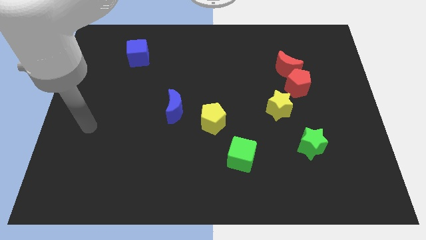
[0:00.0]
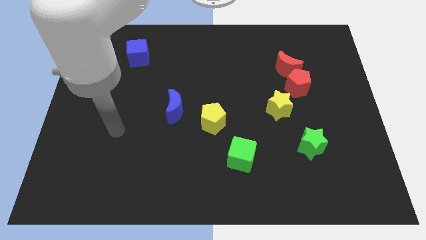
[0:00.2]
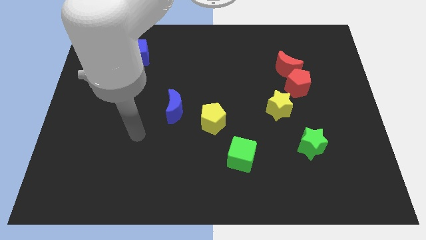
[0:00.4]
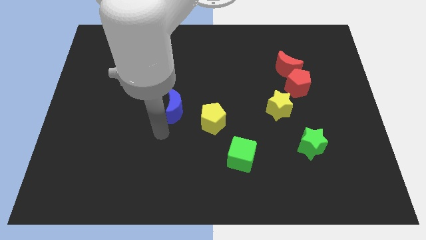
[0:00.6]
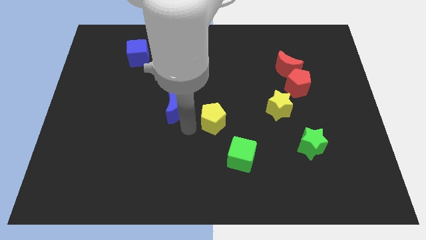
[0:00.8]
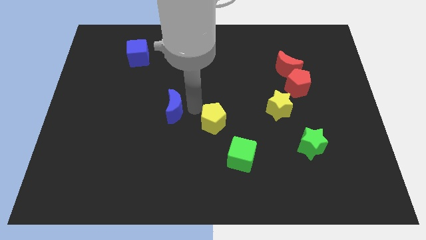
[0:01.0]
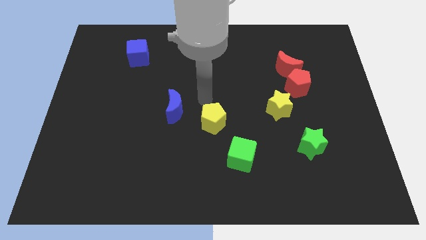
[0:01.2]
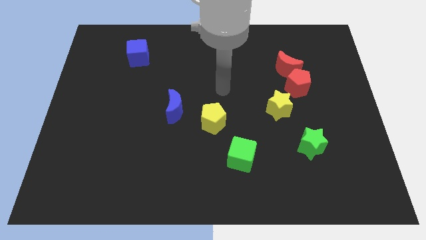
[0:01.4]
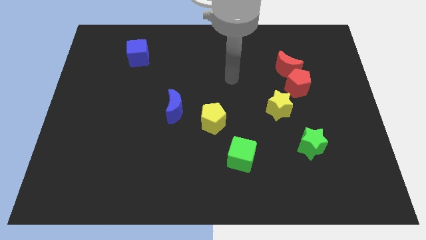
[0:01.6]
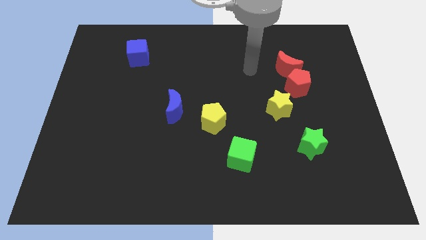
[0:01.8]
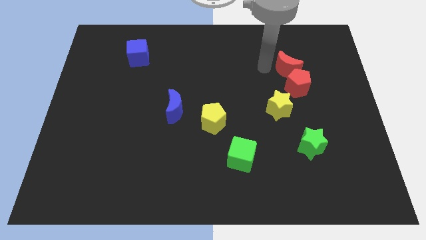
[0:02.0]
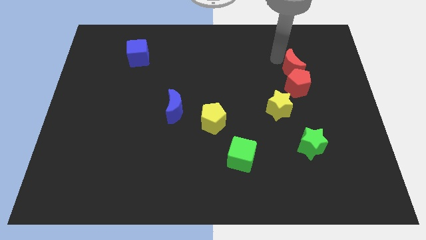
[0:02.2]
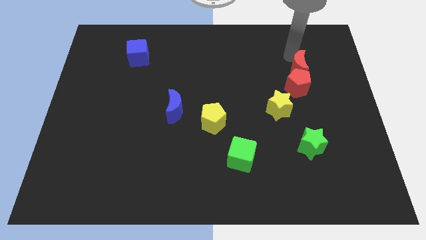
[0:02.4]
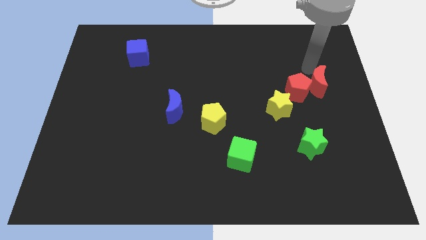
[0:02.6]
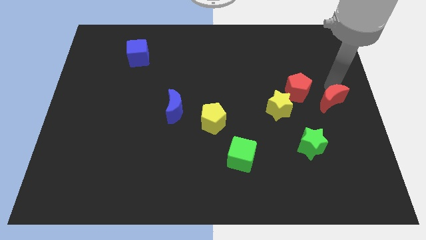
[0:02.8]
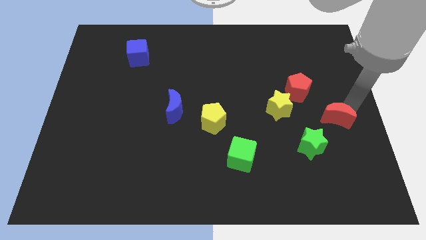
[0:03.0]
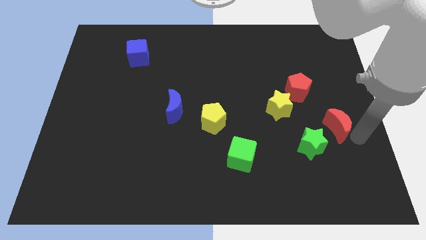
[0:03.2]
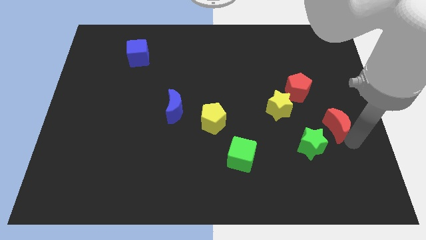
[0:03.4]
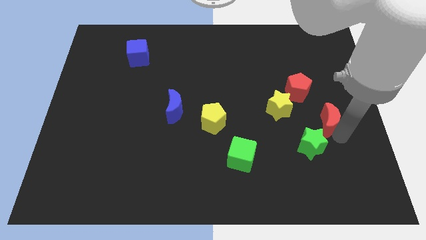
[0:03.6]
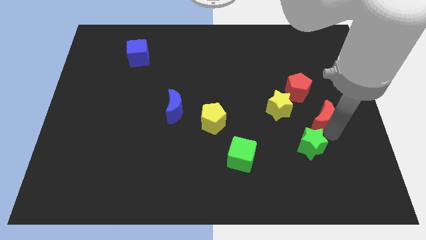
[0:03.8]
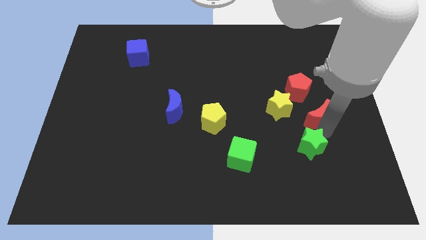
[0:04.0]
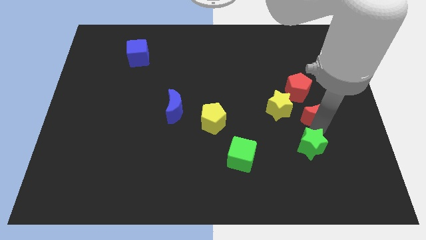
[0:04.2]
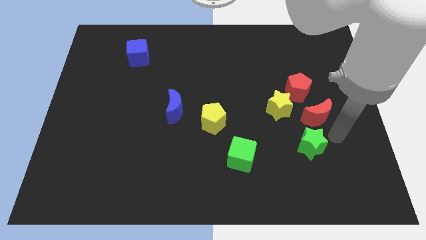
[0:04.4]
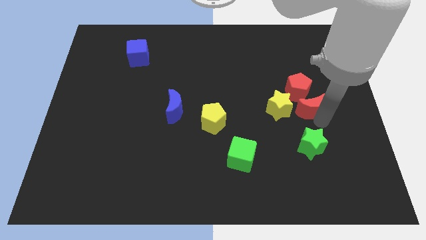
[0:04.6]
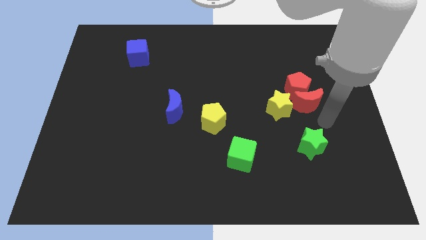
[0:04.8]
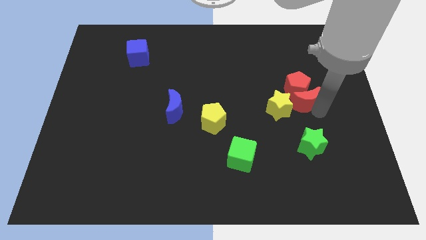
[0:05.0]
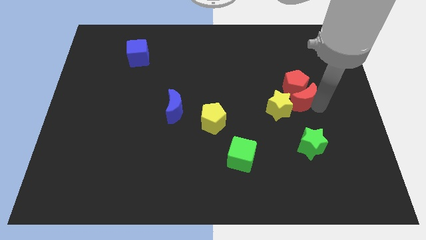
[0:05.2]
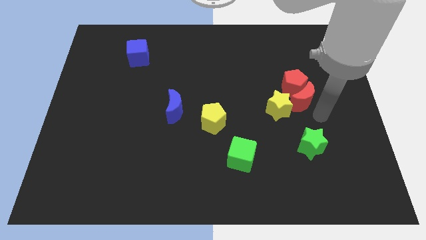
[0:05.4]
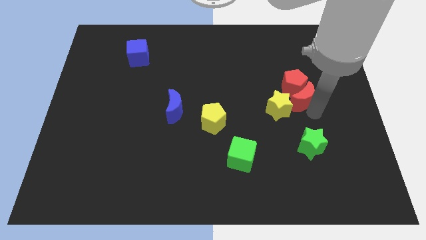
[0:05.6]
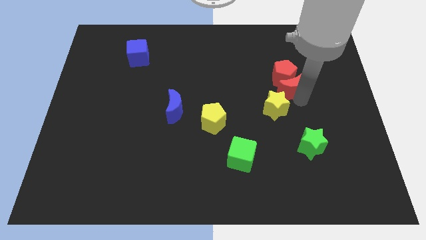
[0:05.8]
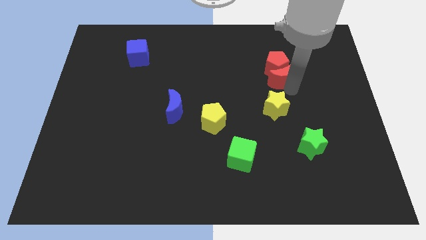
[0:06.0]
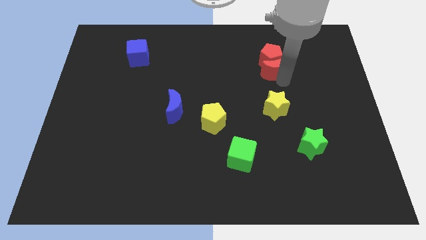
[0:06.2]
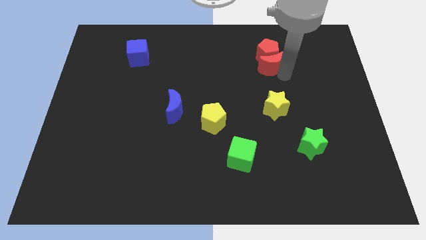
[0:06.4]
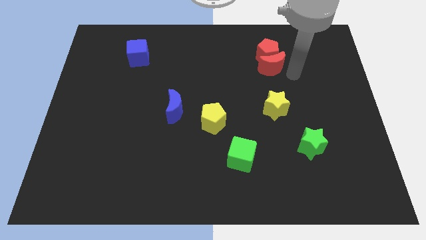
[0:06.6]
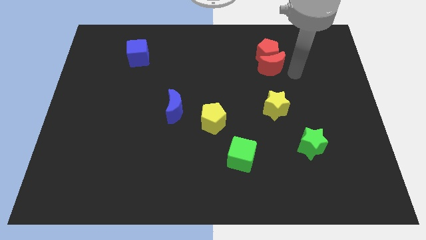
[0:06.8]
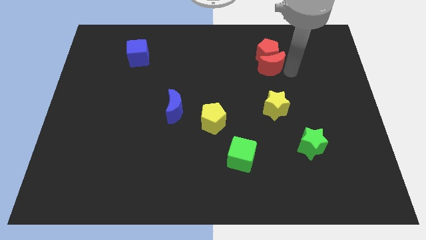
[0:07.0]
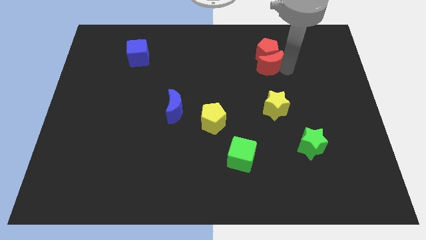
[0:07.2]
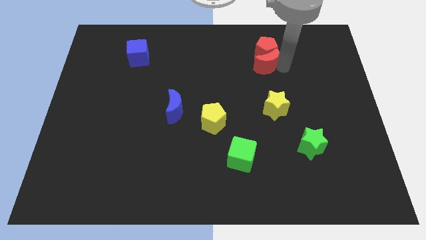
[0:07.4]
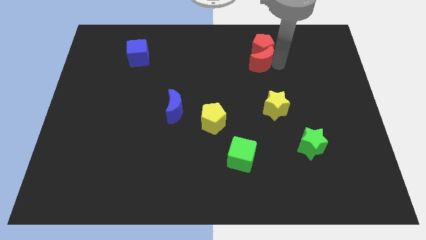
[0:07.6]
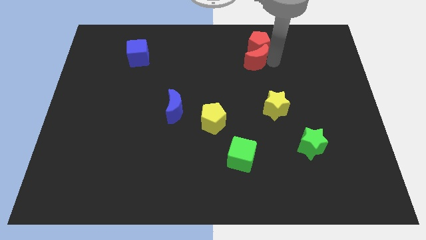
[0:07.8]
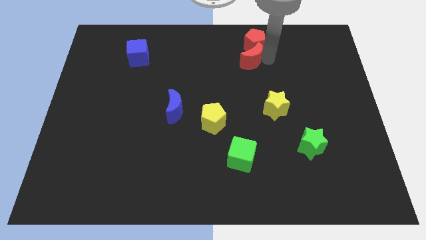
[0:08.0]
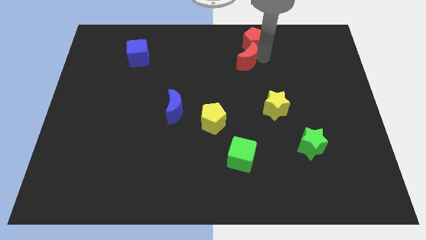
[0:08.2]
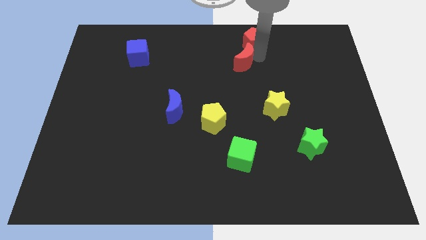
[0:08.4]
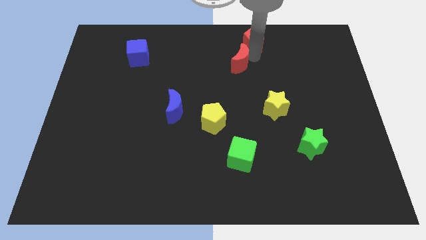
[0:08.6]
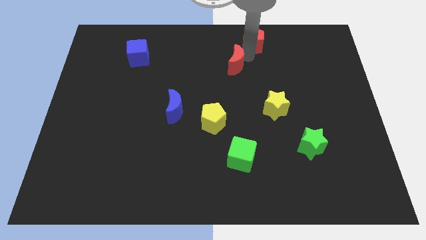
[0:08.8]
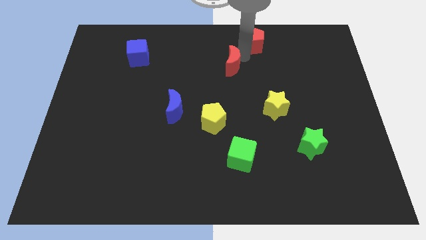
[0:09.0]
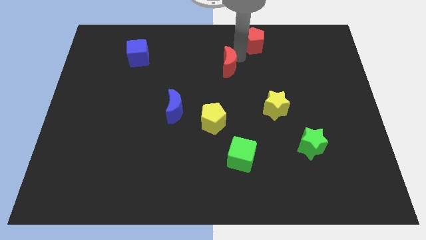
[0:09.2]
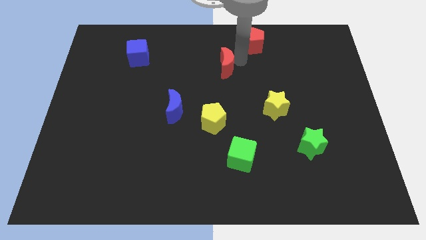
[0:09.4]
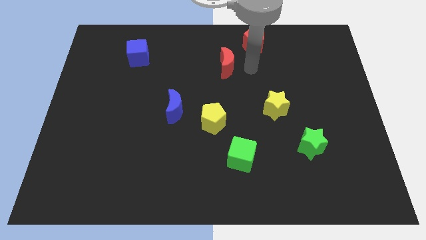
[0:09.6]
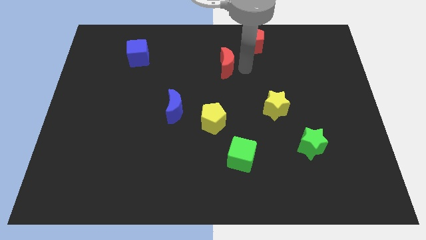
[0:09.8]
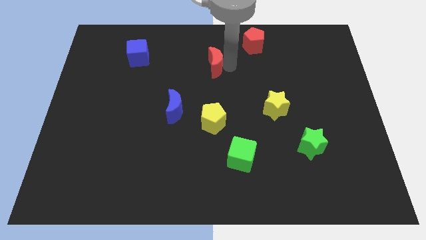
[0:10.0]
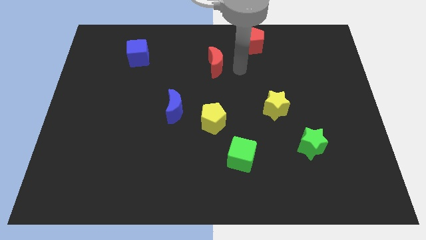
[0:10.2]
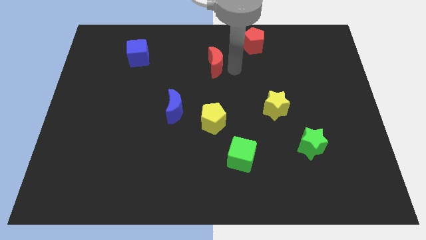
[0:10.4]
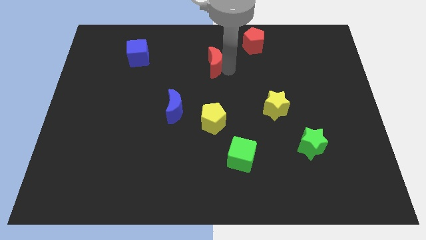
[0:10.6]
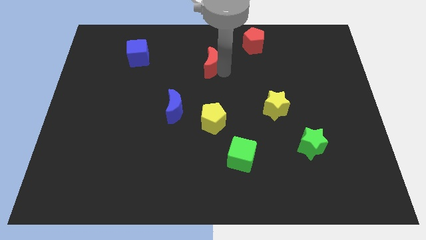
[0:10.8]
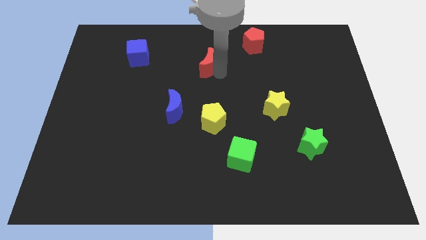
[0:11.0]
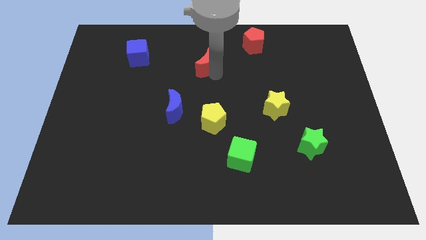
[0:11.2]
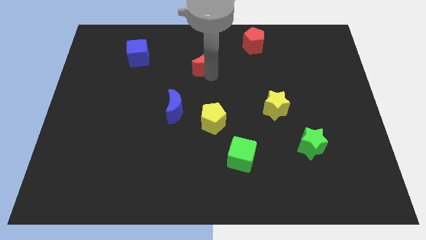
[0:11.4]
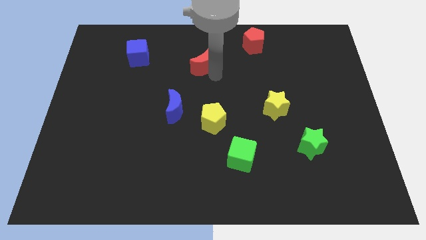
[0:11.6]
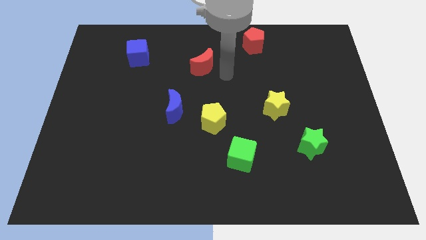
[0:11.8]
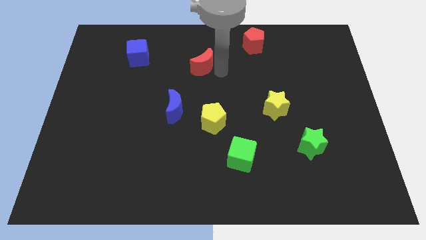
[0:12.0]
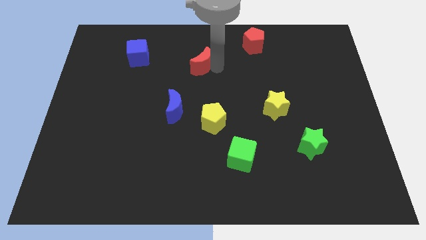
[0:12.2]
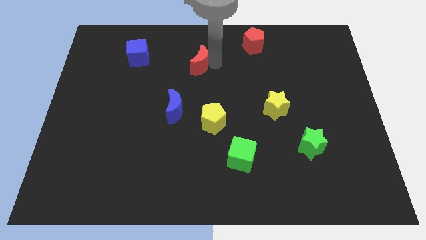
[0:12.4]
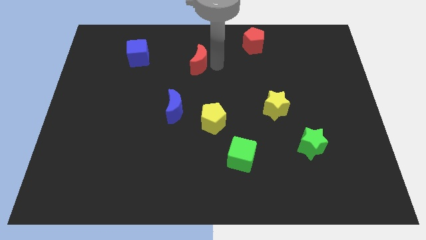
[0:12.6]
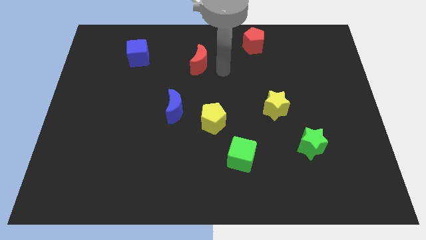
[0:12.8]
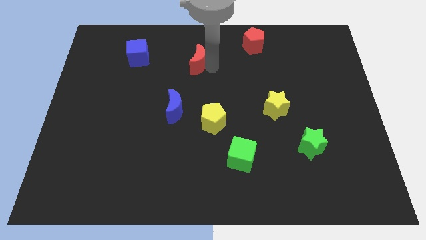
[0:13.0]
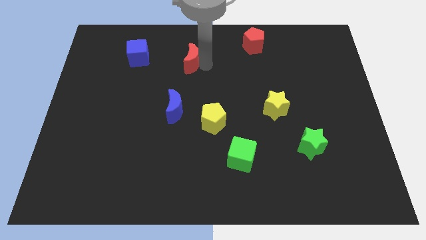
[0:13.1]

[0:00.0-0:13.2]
put the red moon to the right side of the blue cube
